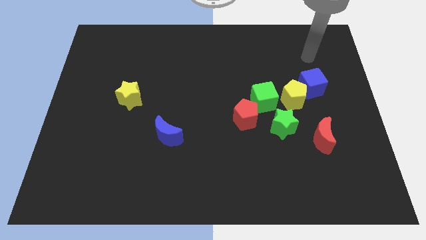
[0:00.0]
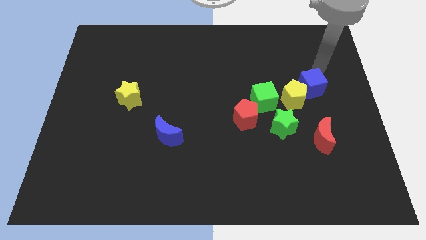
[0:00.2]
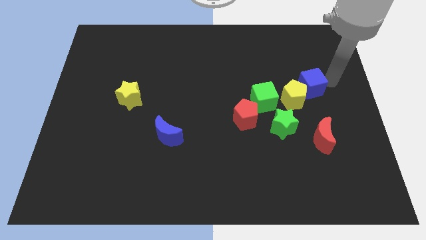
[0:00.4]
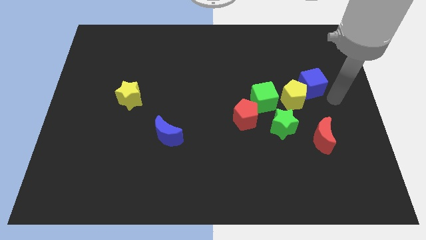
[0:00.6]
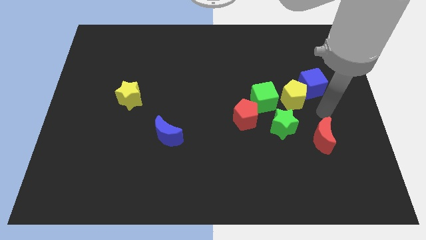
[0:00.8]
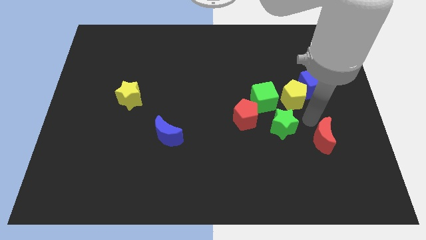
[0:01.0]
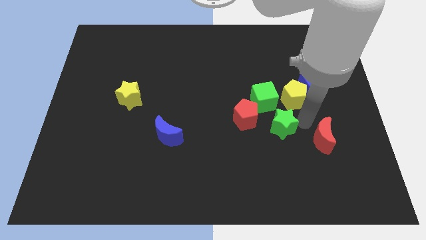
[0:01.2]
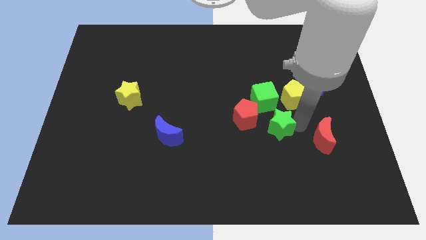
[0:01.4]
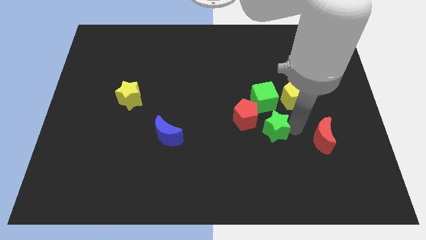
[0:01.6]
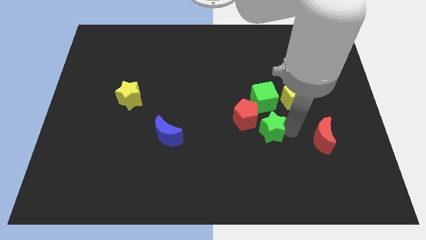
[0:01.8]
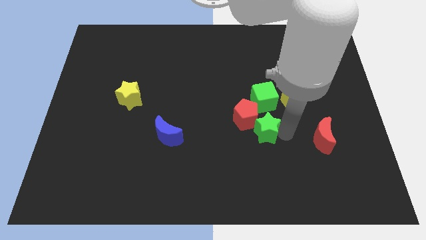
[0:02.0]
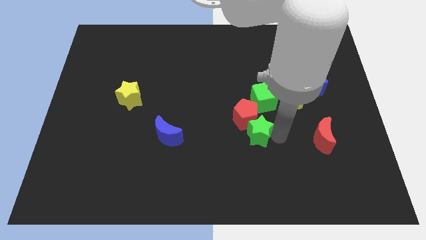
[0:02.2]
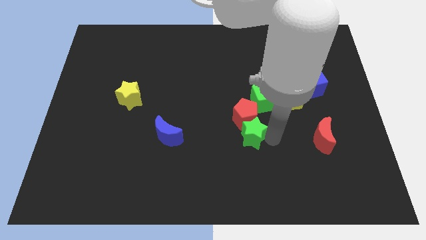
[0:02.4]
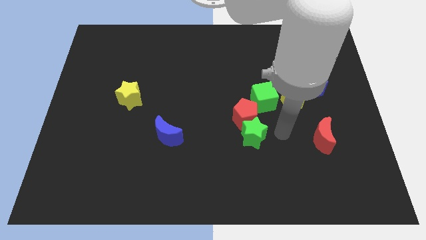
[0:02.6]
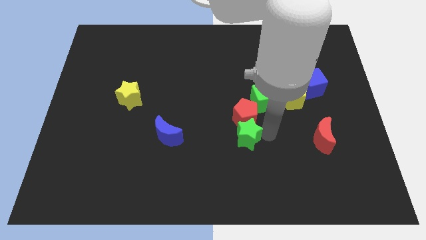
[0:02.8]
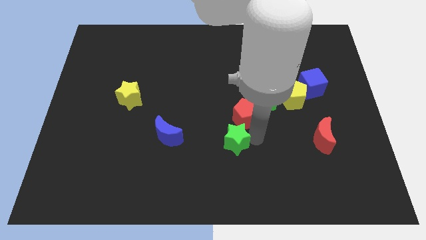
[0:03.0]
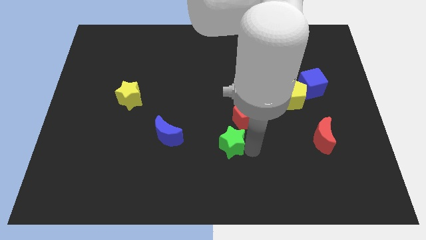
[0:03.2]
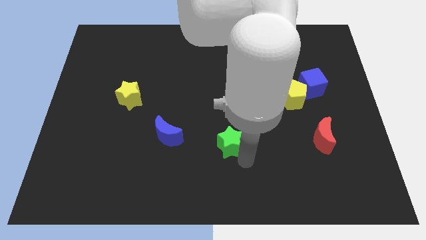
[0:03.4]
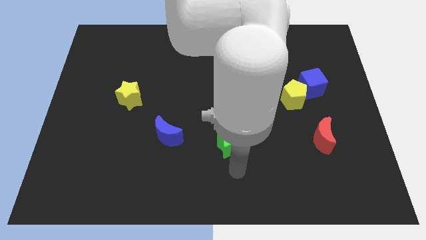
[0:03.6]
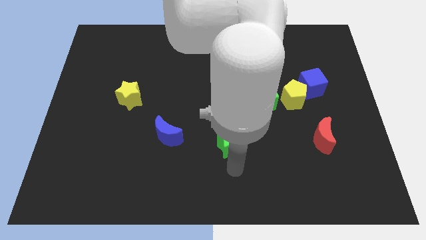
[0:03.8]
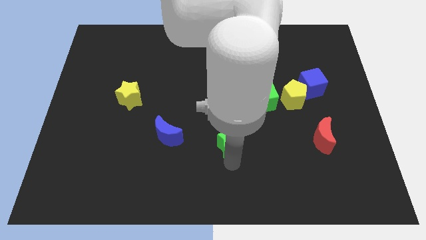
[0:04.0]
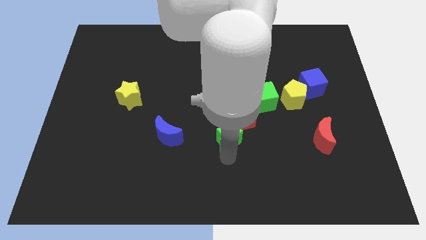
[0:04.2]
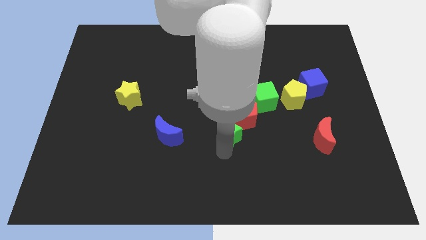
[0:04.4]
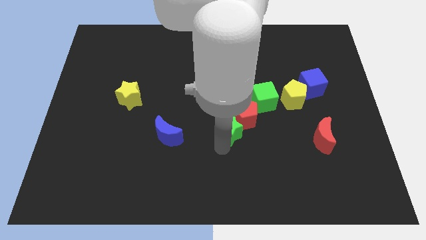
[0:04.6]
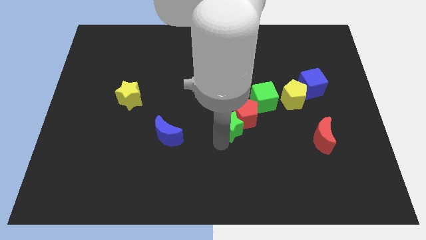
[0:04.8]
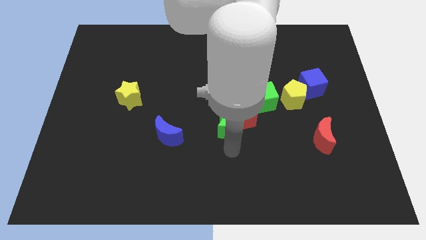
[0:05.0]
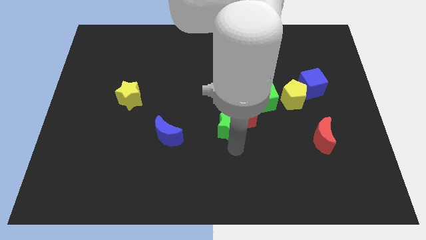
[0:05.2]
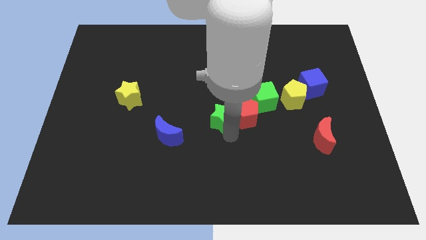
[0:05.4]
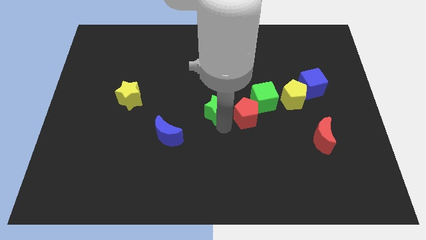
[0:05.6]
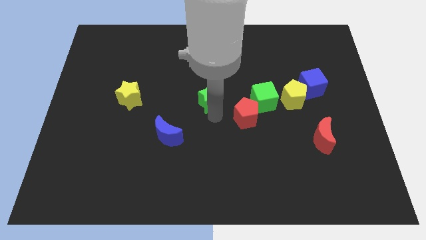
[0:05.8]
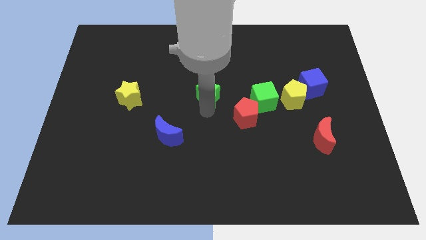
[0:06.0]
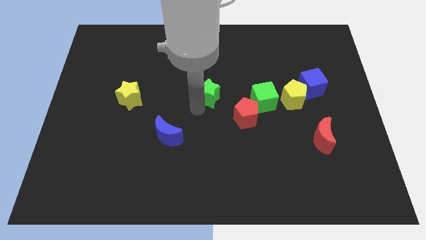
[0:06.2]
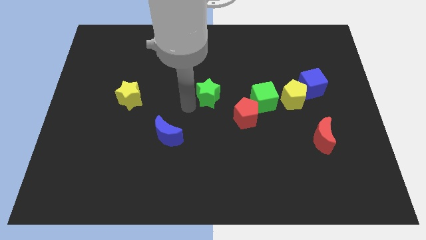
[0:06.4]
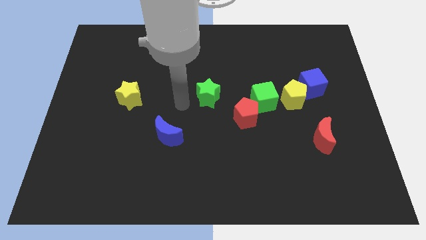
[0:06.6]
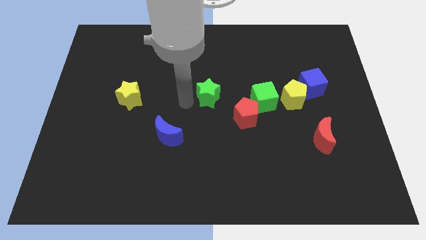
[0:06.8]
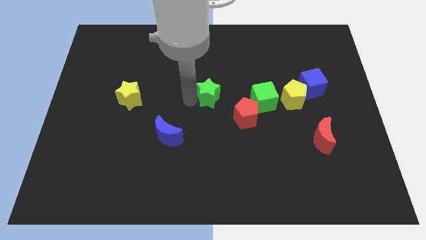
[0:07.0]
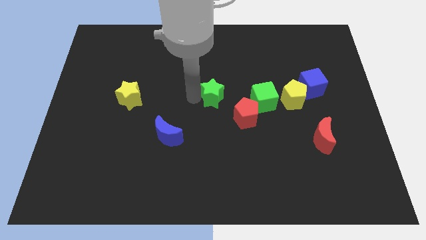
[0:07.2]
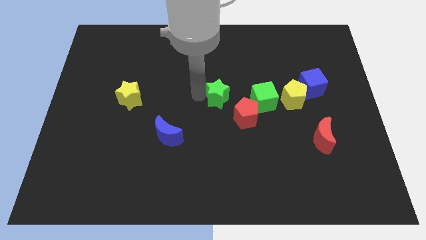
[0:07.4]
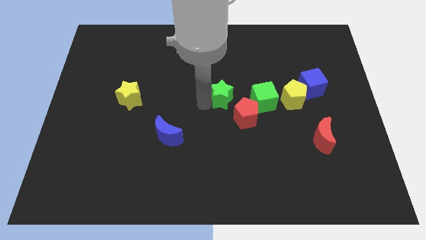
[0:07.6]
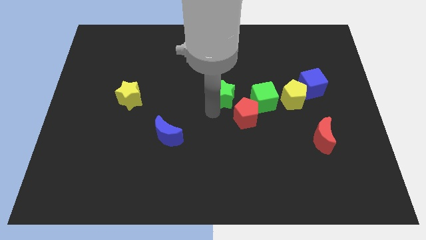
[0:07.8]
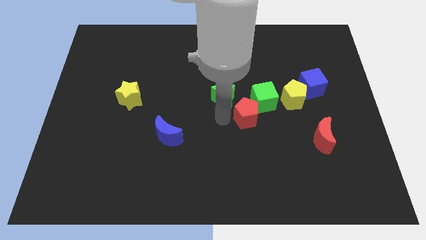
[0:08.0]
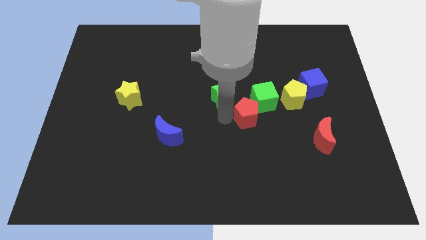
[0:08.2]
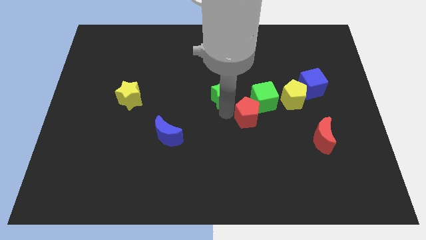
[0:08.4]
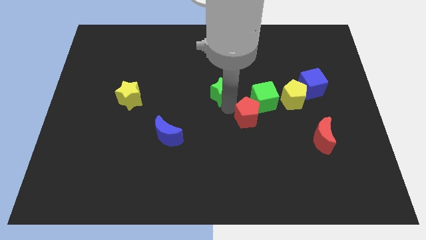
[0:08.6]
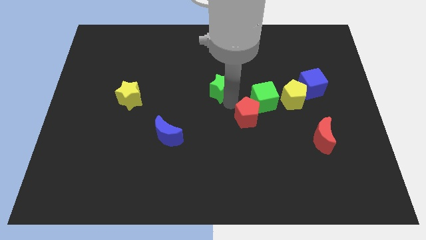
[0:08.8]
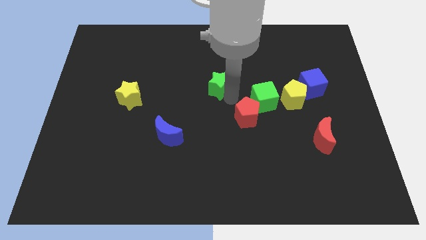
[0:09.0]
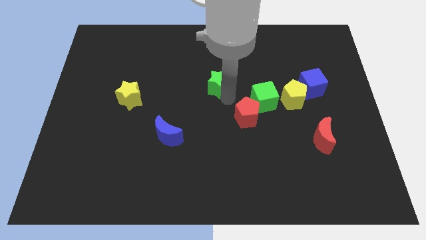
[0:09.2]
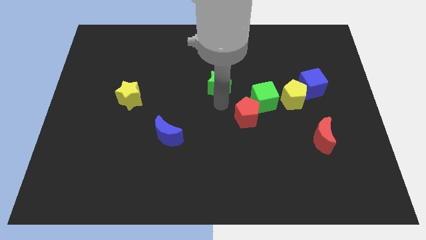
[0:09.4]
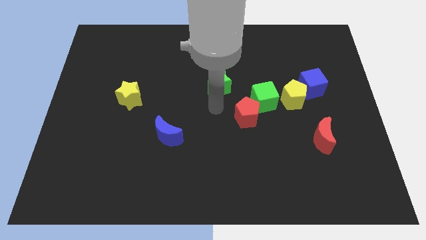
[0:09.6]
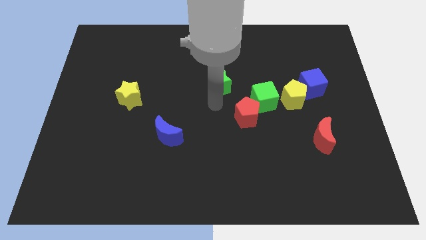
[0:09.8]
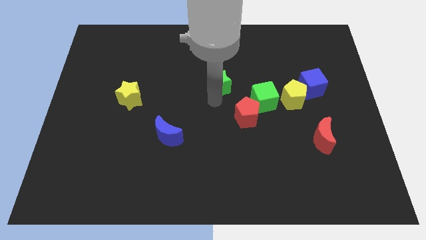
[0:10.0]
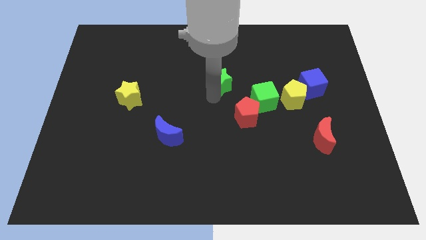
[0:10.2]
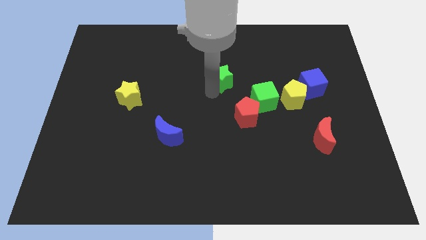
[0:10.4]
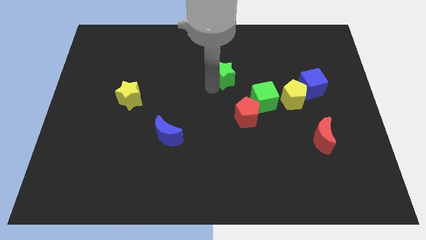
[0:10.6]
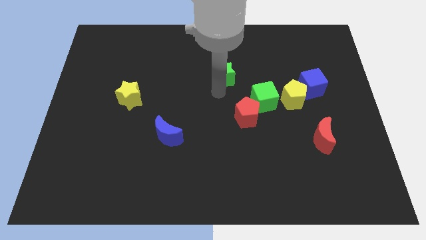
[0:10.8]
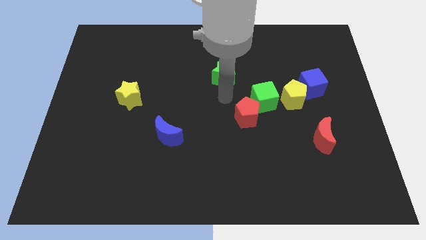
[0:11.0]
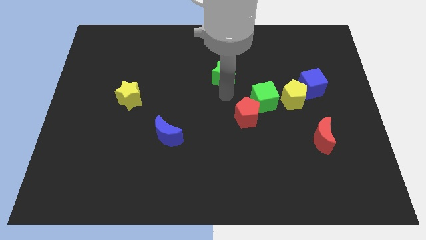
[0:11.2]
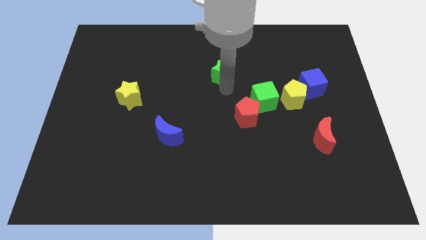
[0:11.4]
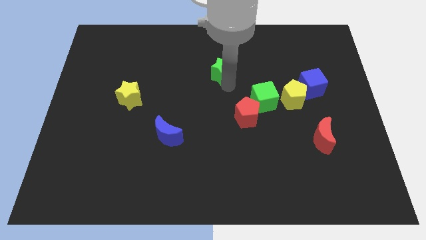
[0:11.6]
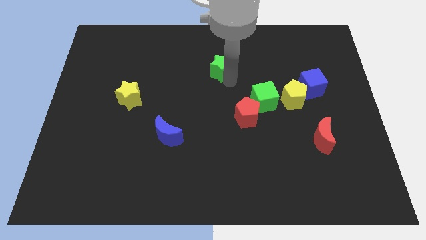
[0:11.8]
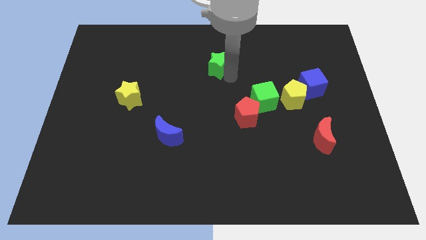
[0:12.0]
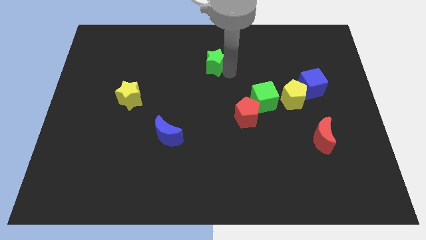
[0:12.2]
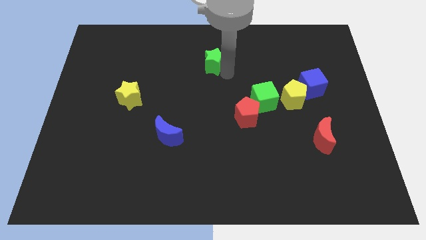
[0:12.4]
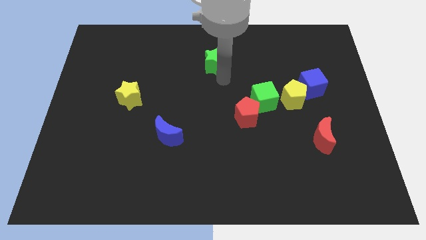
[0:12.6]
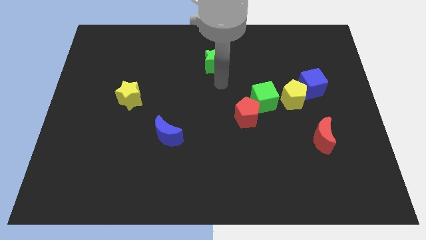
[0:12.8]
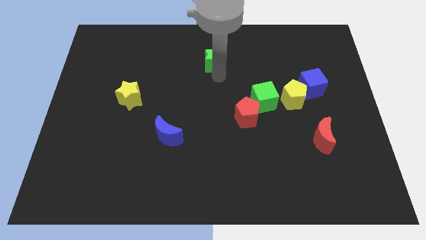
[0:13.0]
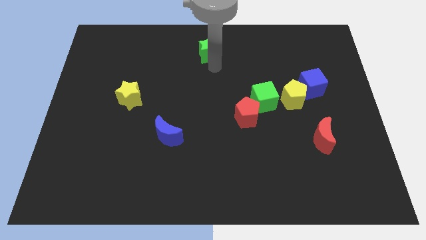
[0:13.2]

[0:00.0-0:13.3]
move the green star to the top

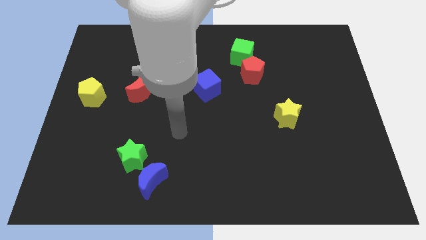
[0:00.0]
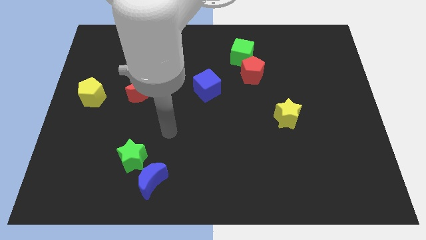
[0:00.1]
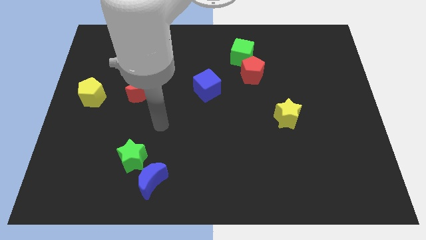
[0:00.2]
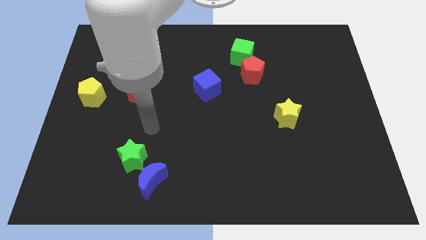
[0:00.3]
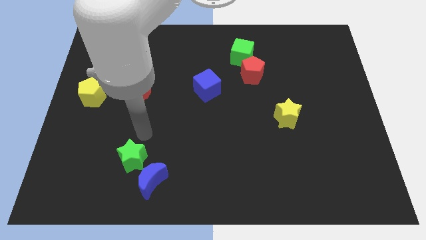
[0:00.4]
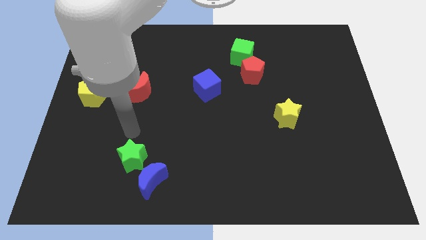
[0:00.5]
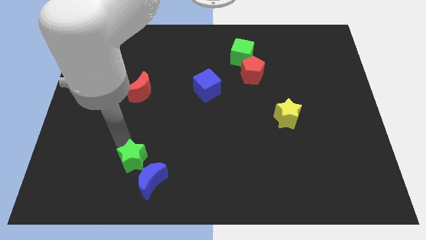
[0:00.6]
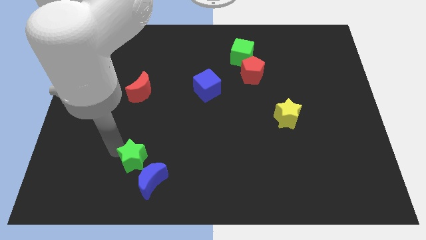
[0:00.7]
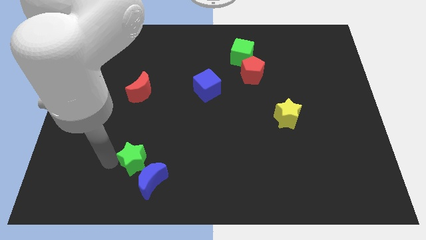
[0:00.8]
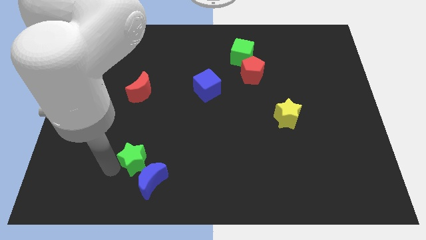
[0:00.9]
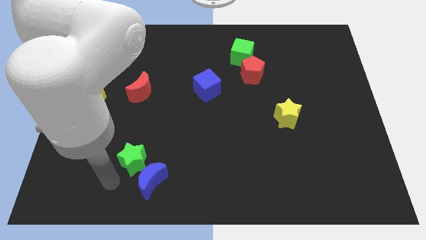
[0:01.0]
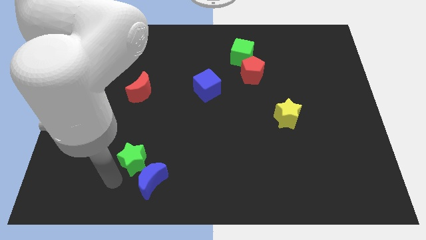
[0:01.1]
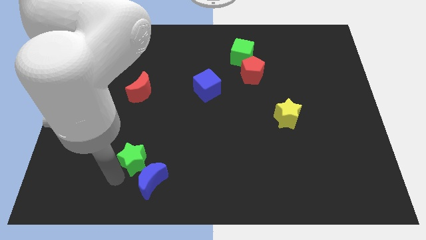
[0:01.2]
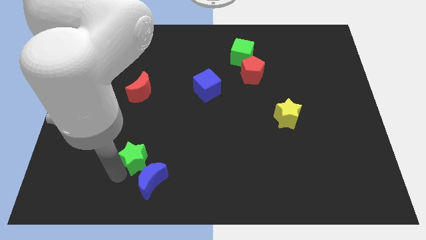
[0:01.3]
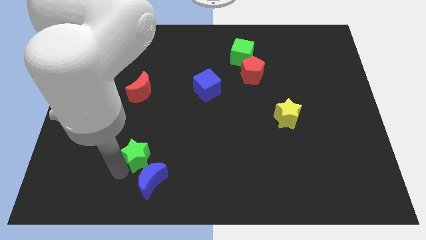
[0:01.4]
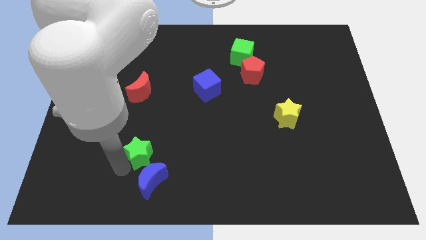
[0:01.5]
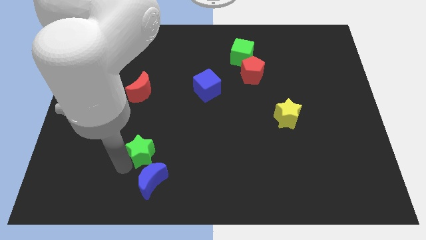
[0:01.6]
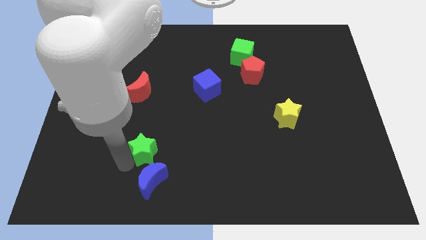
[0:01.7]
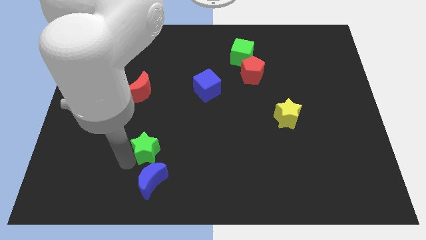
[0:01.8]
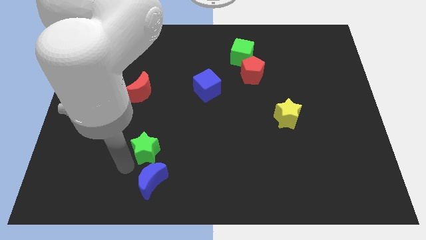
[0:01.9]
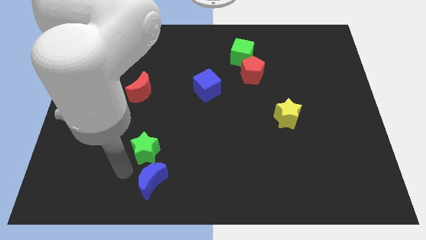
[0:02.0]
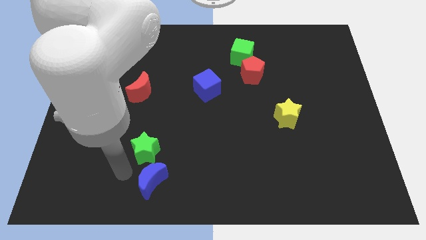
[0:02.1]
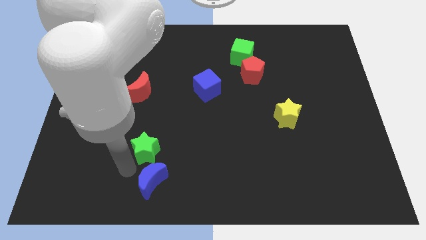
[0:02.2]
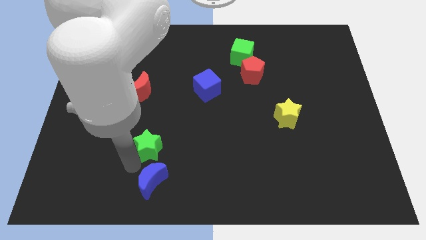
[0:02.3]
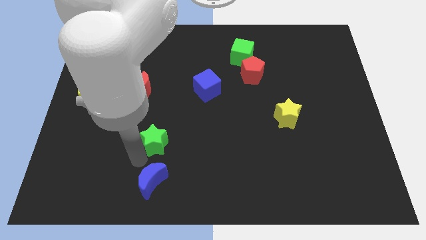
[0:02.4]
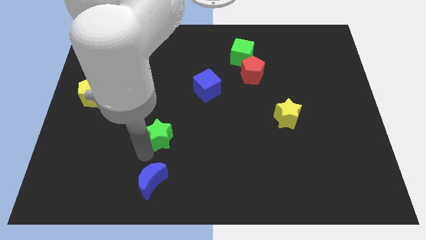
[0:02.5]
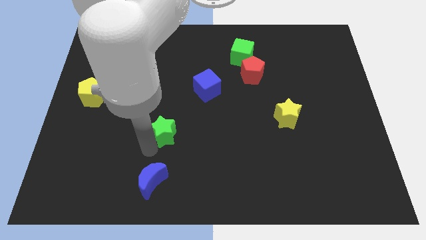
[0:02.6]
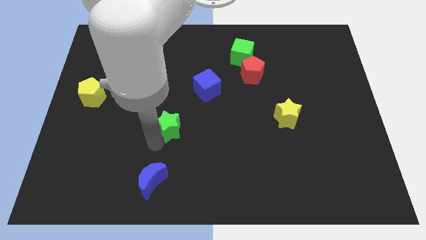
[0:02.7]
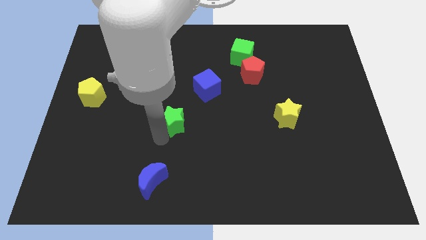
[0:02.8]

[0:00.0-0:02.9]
push the green star to the center
